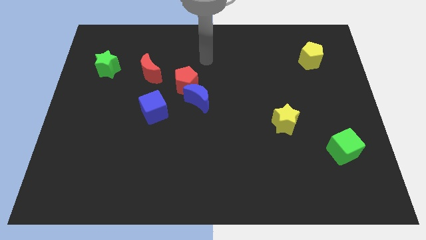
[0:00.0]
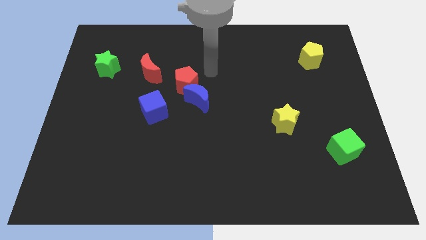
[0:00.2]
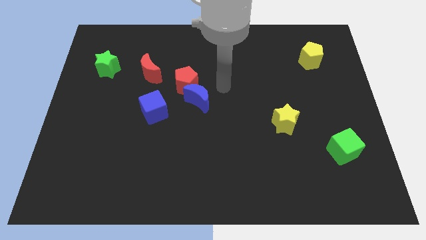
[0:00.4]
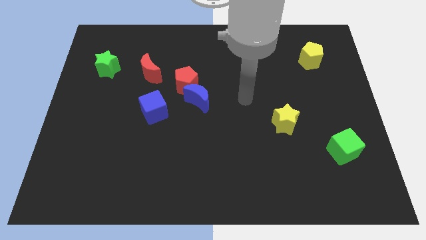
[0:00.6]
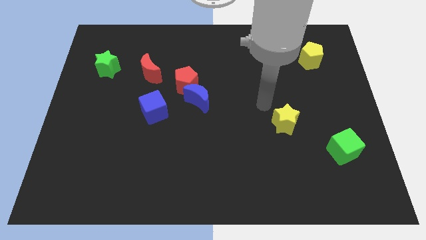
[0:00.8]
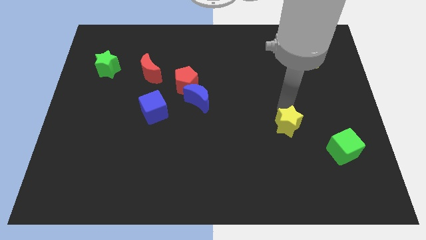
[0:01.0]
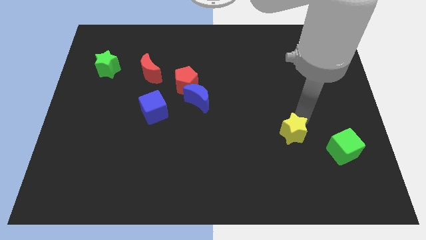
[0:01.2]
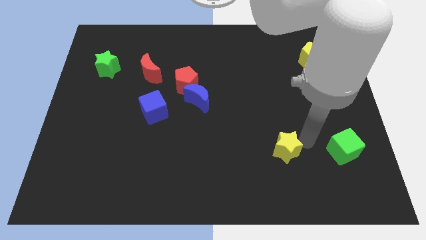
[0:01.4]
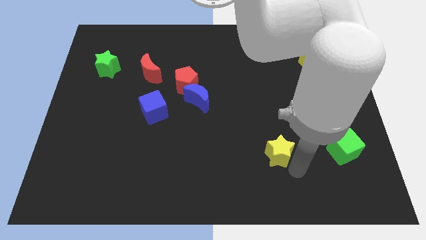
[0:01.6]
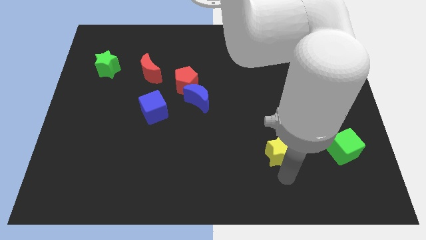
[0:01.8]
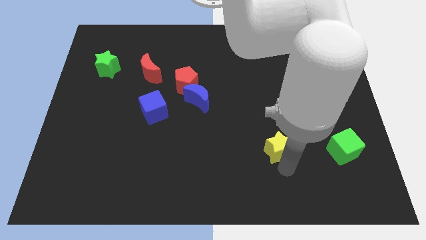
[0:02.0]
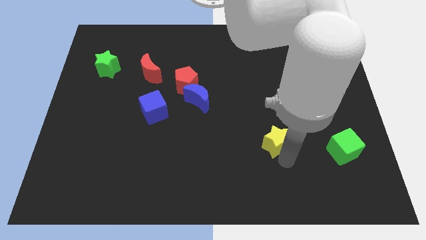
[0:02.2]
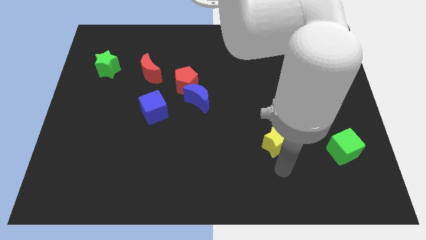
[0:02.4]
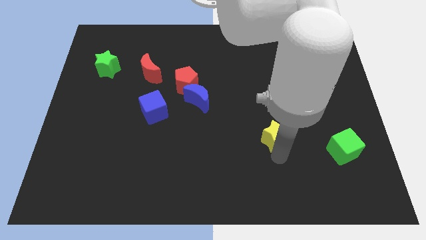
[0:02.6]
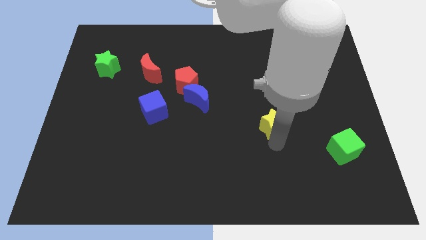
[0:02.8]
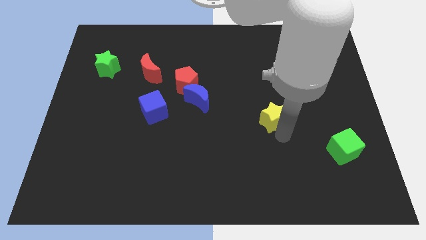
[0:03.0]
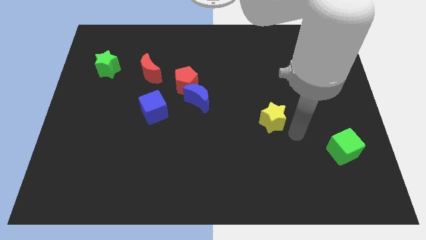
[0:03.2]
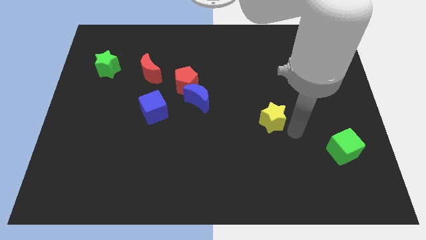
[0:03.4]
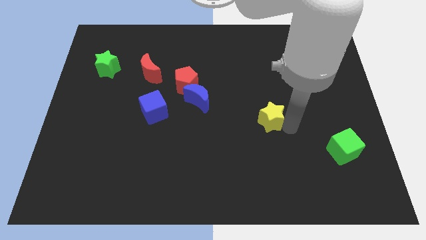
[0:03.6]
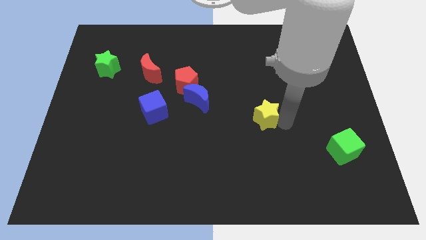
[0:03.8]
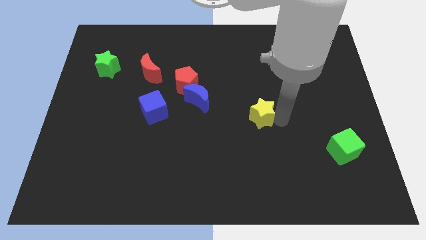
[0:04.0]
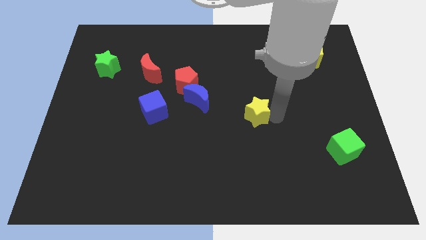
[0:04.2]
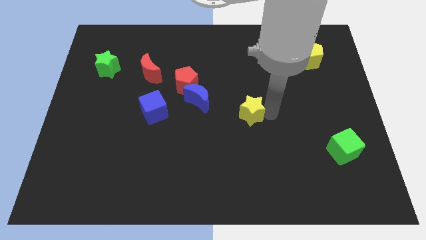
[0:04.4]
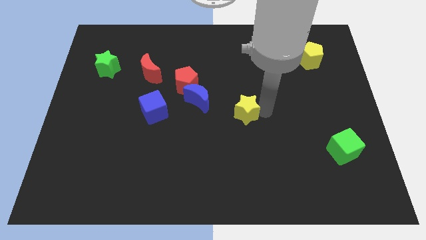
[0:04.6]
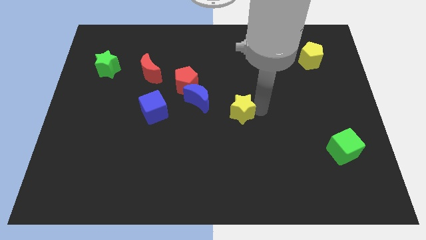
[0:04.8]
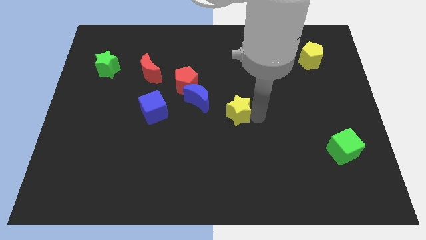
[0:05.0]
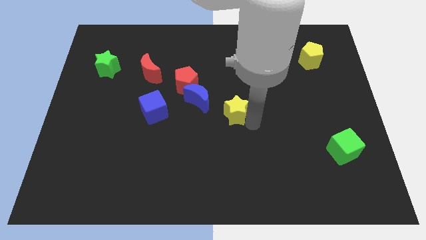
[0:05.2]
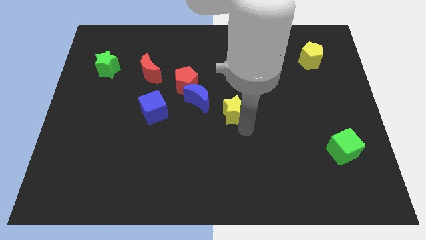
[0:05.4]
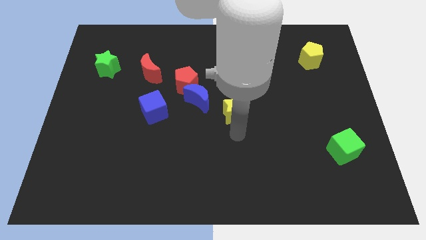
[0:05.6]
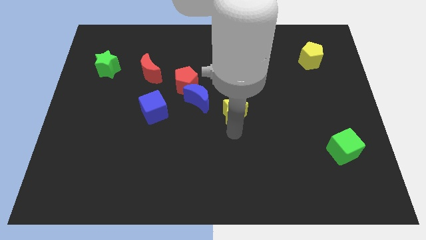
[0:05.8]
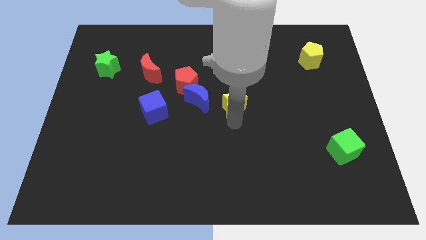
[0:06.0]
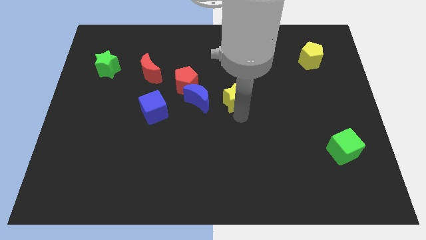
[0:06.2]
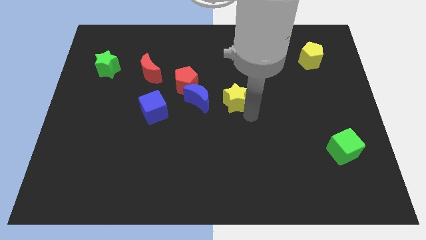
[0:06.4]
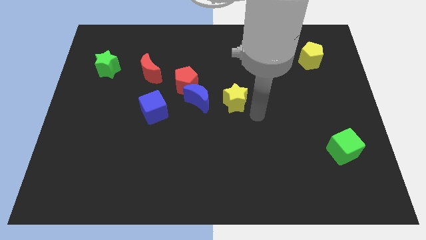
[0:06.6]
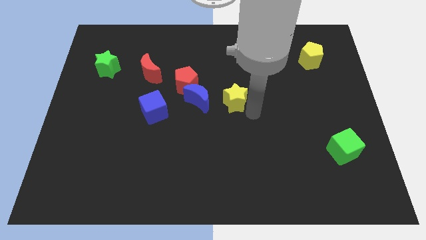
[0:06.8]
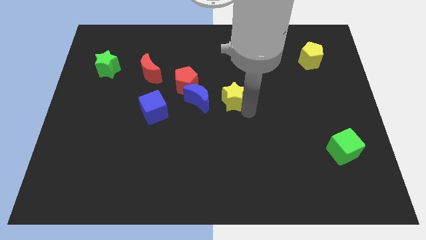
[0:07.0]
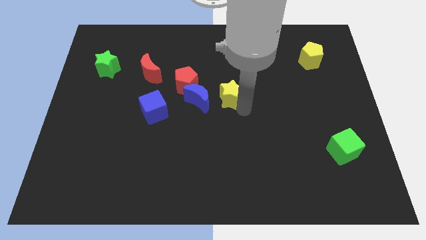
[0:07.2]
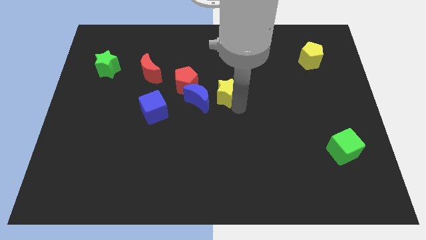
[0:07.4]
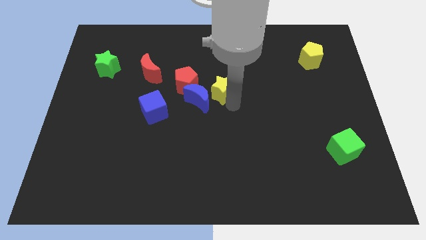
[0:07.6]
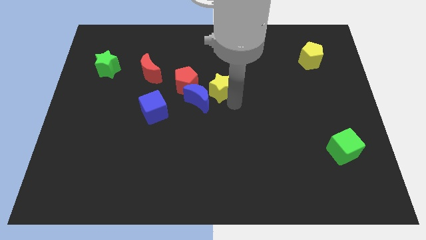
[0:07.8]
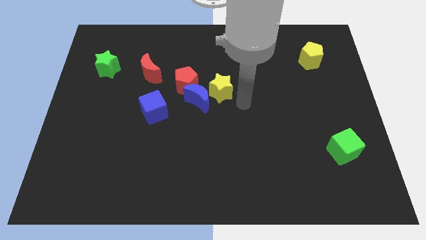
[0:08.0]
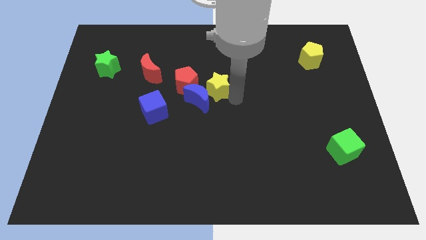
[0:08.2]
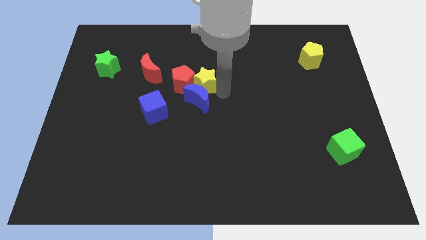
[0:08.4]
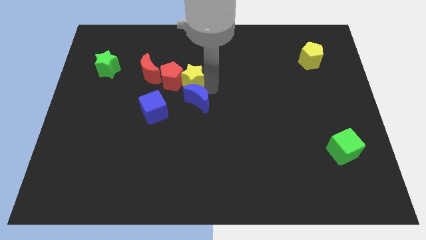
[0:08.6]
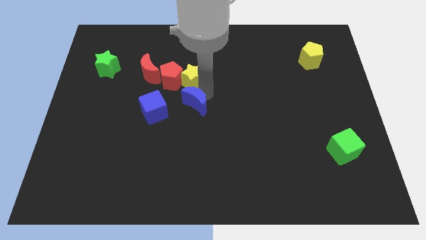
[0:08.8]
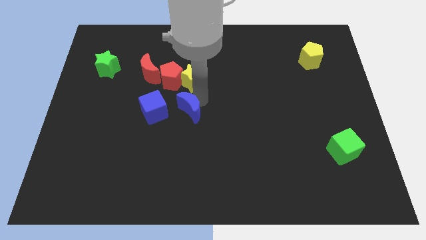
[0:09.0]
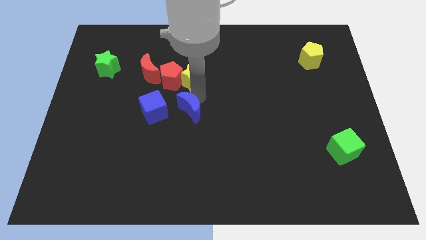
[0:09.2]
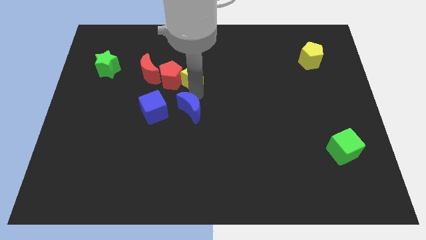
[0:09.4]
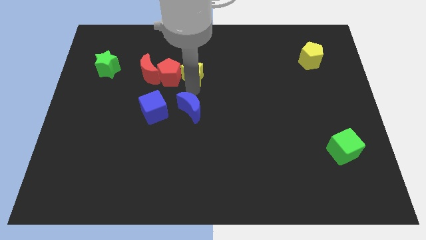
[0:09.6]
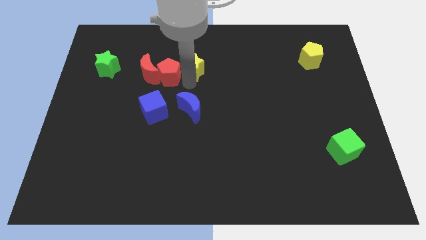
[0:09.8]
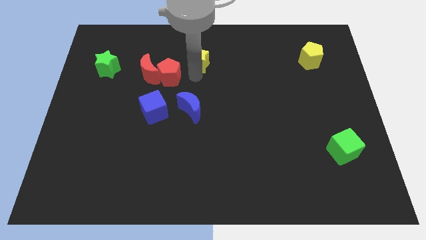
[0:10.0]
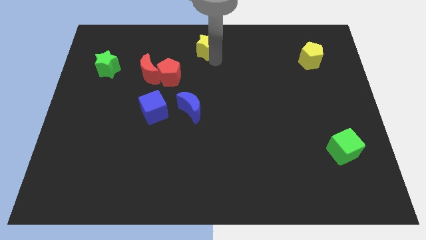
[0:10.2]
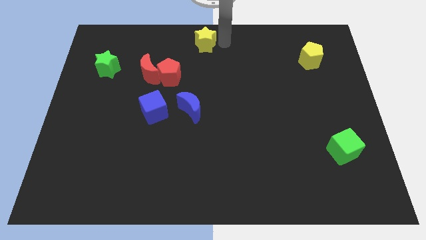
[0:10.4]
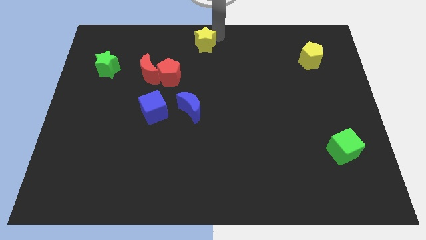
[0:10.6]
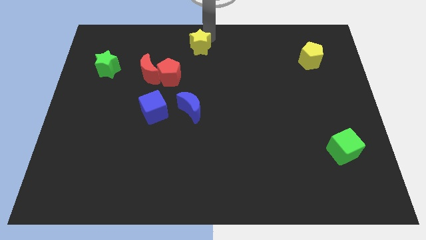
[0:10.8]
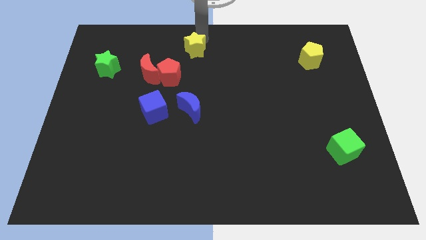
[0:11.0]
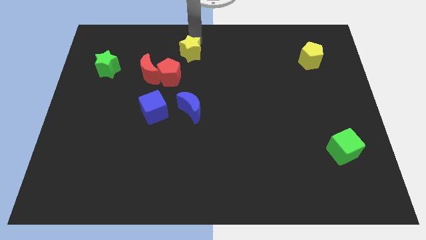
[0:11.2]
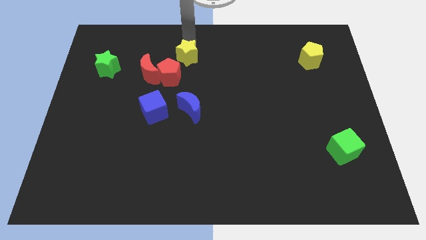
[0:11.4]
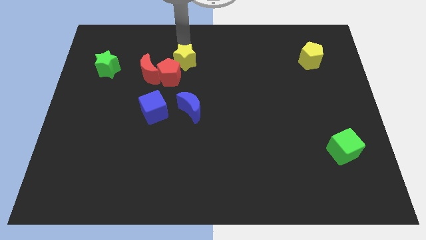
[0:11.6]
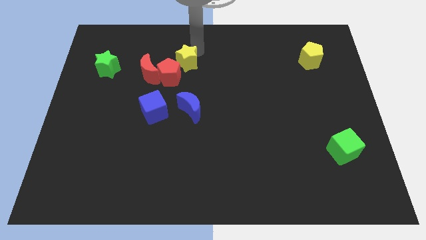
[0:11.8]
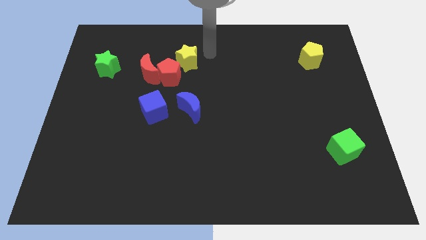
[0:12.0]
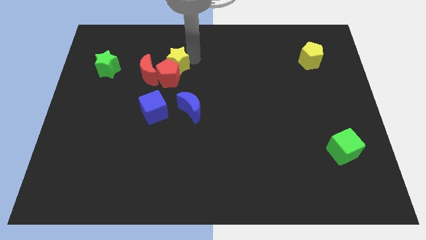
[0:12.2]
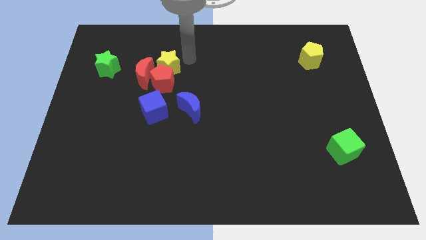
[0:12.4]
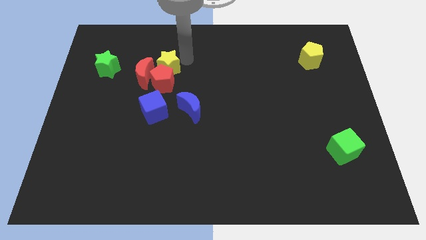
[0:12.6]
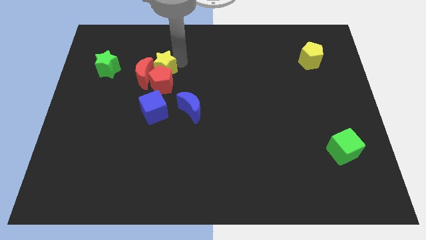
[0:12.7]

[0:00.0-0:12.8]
put the yellow star next to the red moon

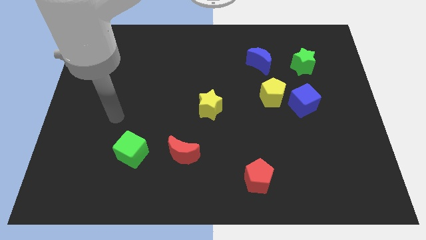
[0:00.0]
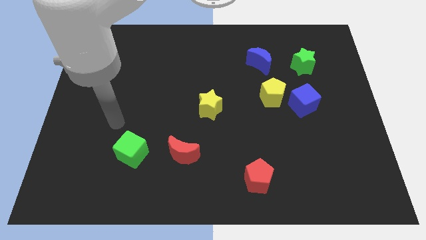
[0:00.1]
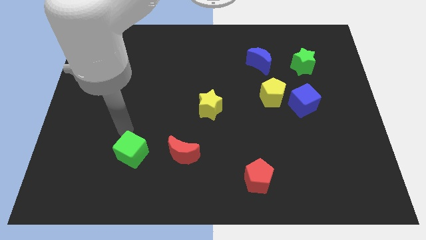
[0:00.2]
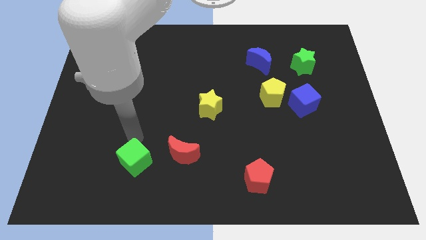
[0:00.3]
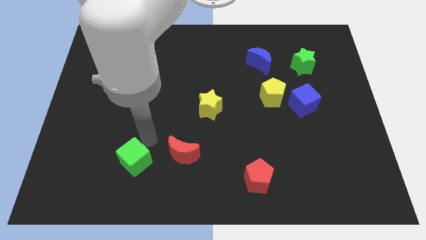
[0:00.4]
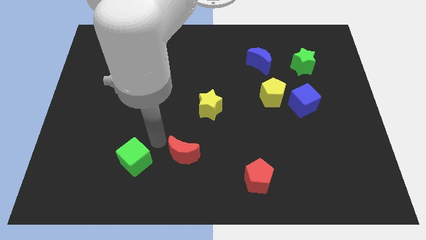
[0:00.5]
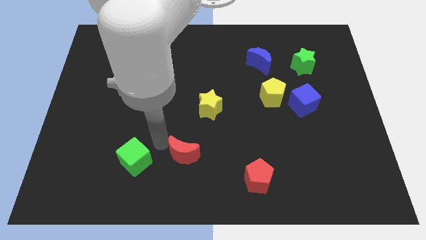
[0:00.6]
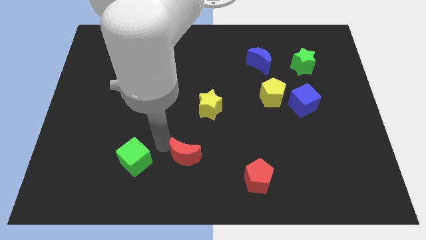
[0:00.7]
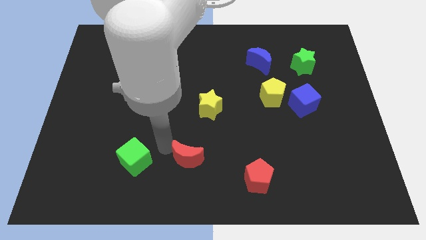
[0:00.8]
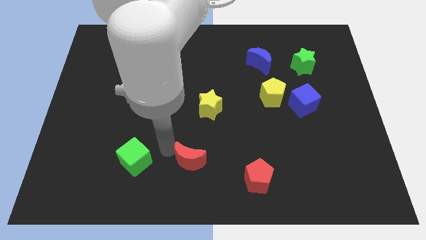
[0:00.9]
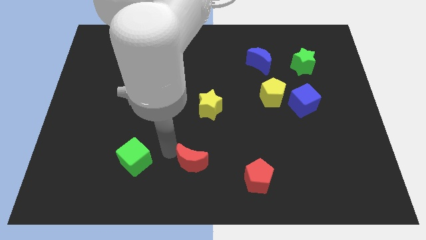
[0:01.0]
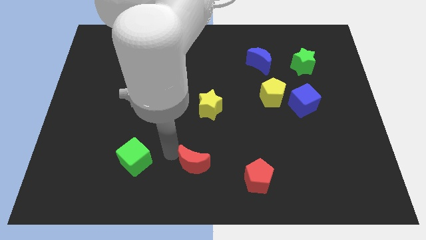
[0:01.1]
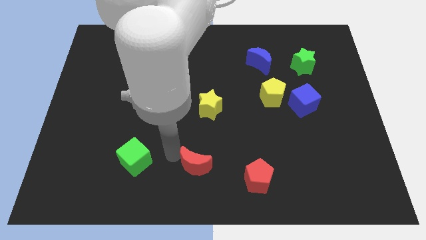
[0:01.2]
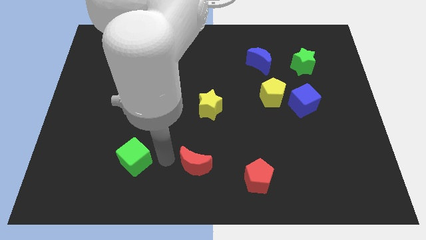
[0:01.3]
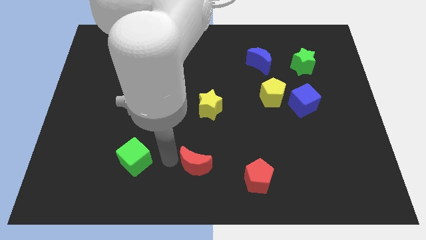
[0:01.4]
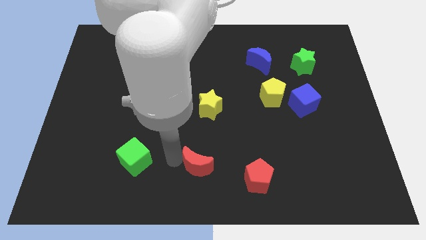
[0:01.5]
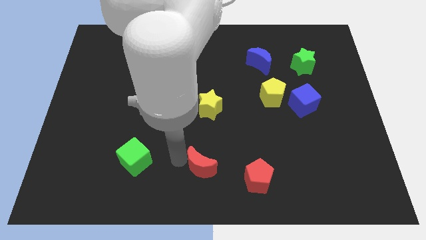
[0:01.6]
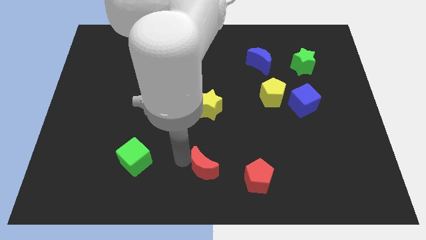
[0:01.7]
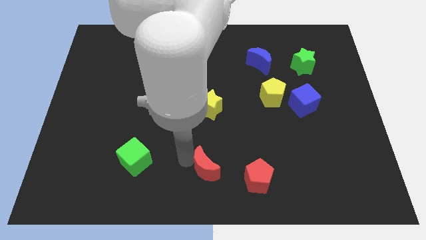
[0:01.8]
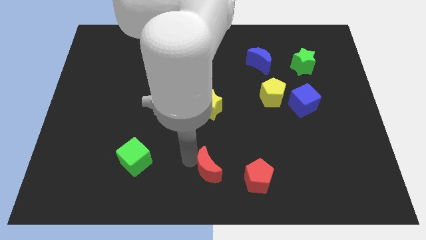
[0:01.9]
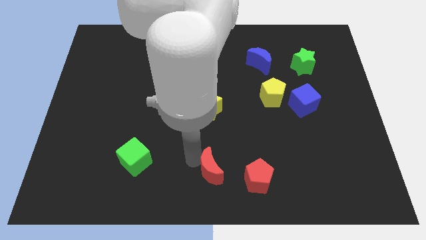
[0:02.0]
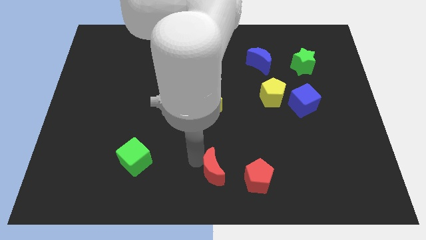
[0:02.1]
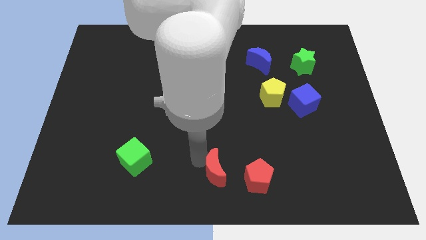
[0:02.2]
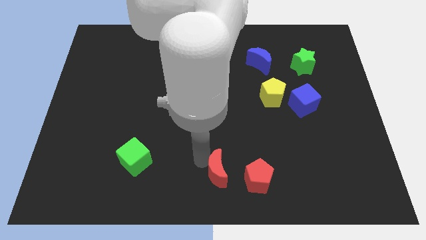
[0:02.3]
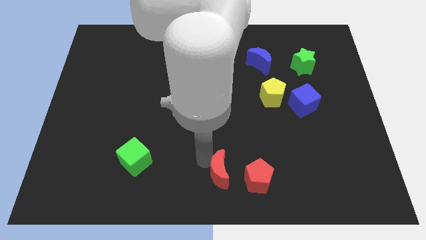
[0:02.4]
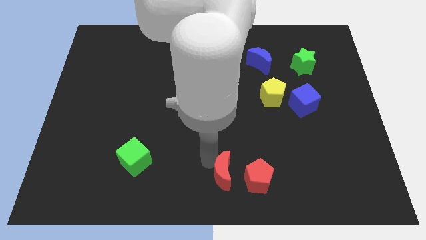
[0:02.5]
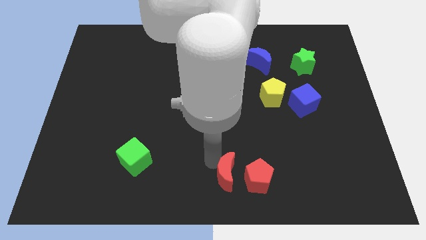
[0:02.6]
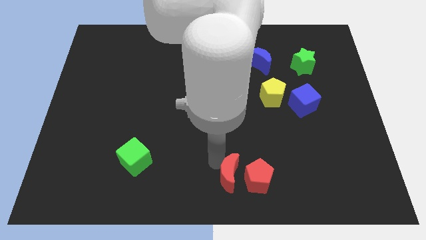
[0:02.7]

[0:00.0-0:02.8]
put the red moon towards the red pentagon
